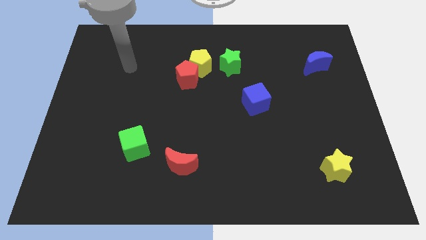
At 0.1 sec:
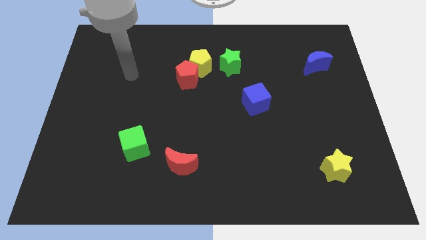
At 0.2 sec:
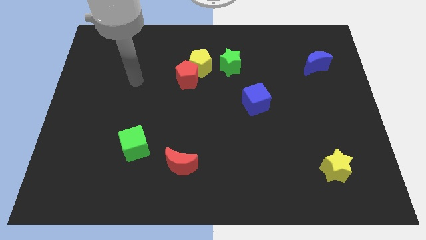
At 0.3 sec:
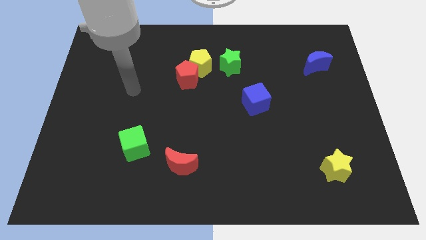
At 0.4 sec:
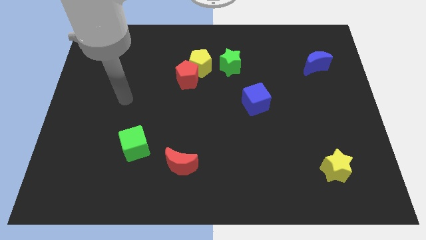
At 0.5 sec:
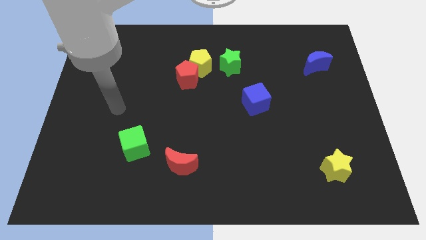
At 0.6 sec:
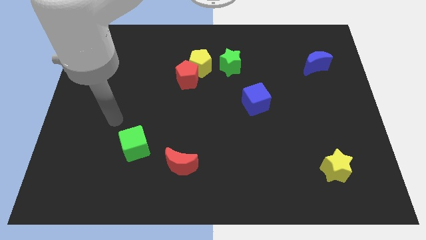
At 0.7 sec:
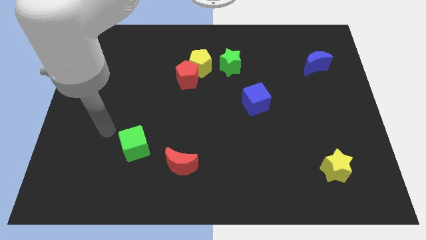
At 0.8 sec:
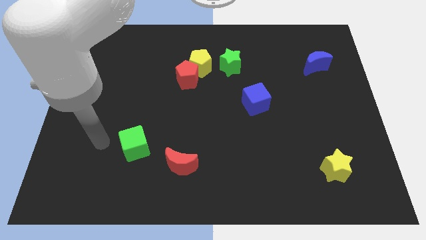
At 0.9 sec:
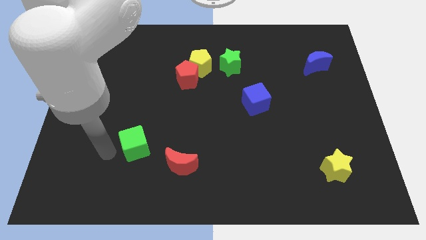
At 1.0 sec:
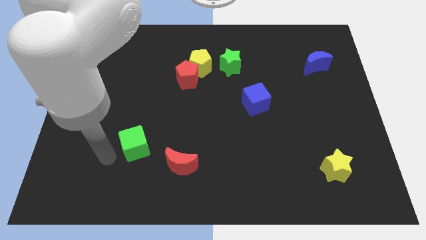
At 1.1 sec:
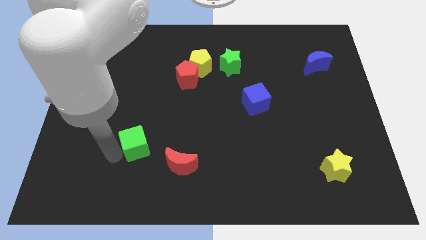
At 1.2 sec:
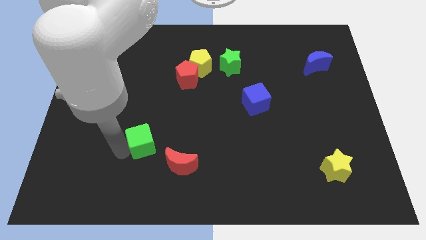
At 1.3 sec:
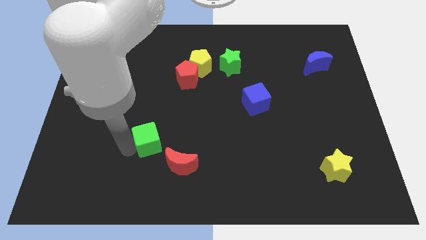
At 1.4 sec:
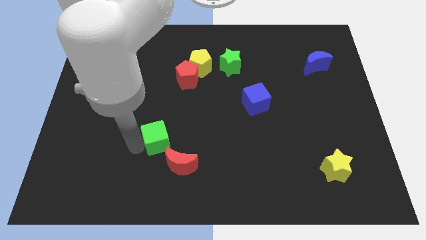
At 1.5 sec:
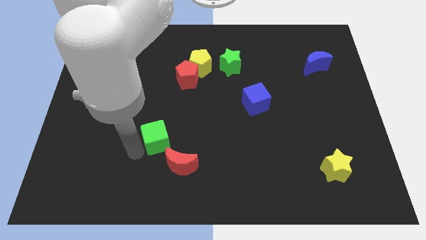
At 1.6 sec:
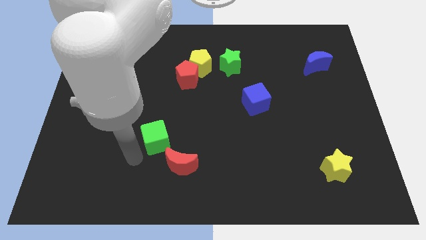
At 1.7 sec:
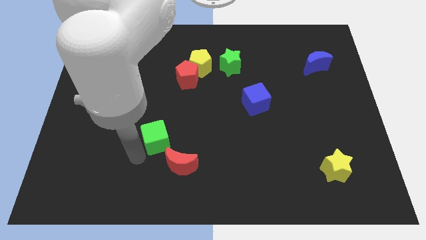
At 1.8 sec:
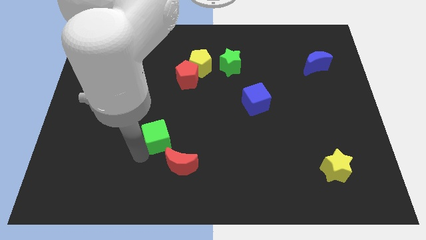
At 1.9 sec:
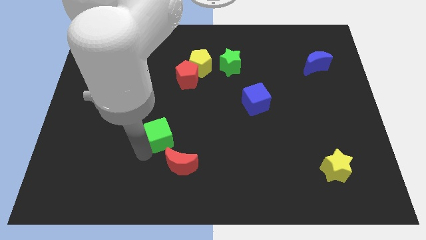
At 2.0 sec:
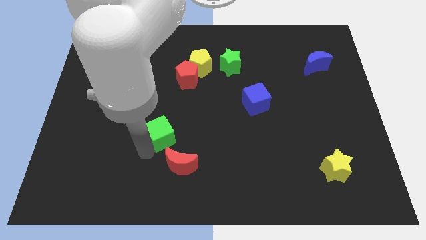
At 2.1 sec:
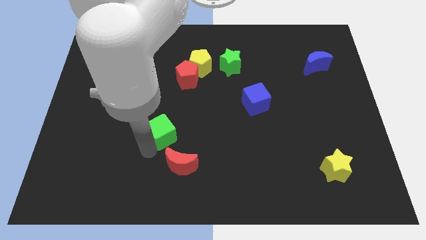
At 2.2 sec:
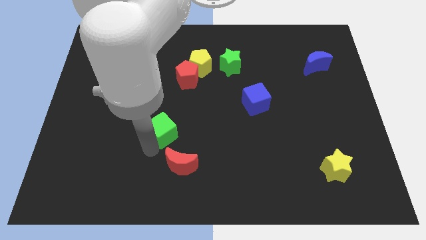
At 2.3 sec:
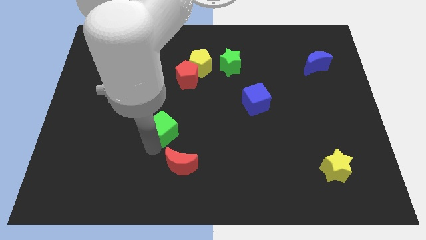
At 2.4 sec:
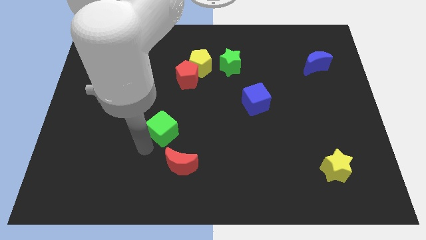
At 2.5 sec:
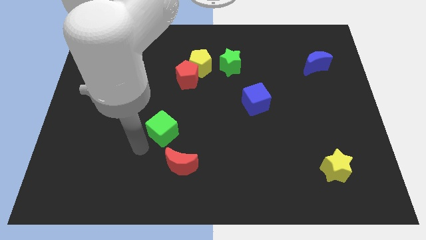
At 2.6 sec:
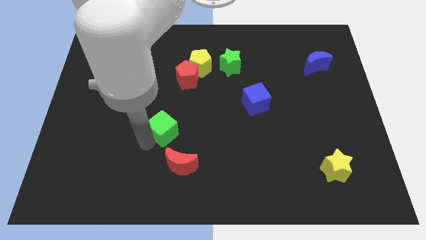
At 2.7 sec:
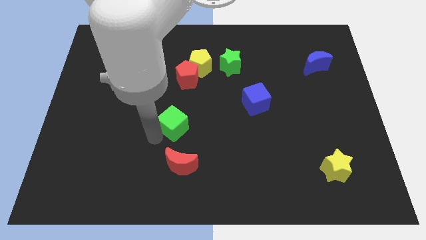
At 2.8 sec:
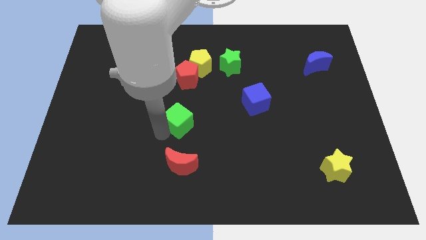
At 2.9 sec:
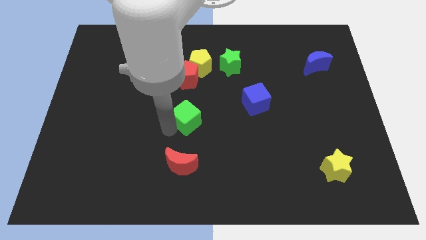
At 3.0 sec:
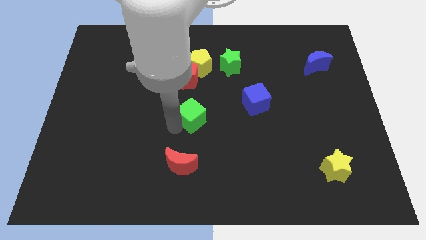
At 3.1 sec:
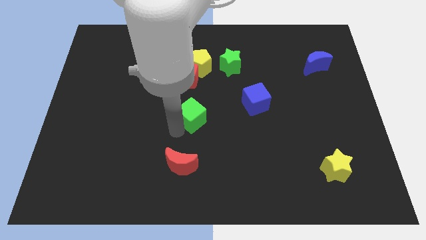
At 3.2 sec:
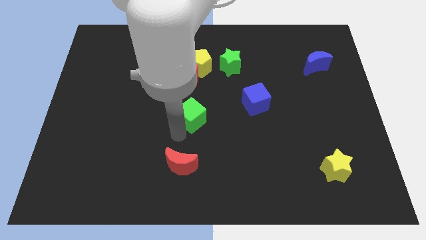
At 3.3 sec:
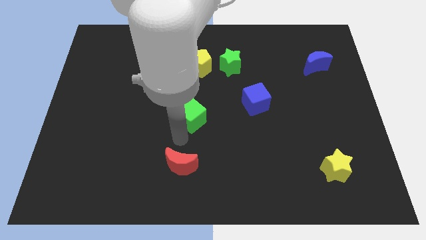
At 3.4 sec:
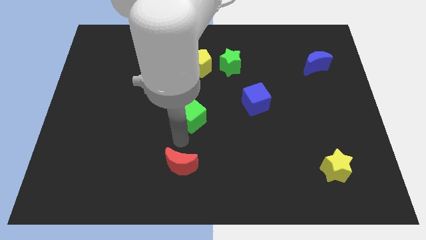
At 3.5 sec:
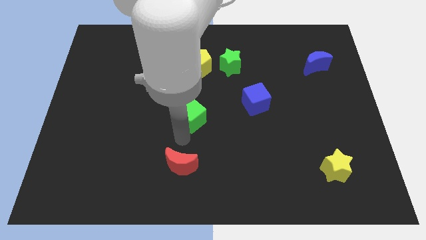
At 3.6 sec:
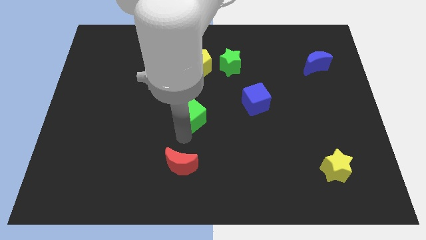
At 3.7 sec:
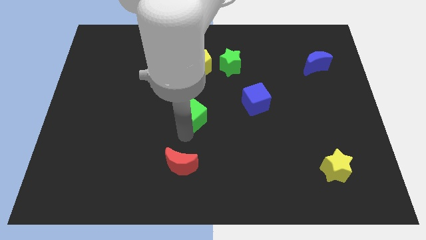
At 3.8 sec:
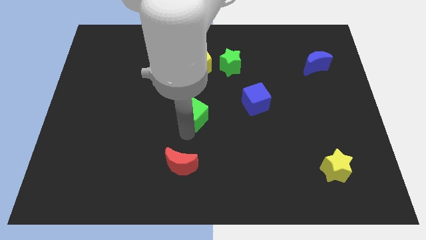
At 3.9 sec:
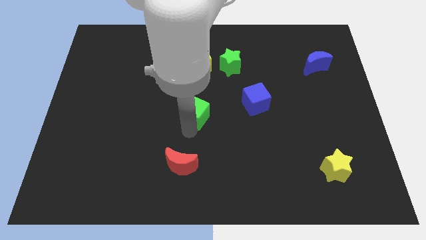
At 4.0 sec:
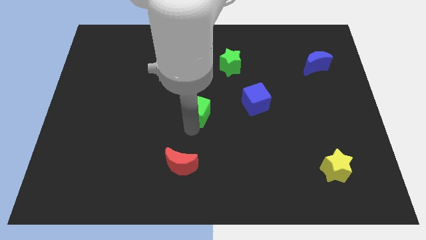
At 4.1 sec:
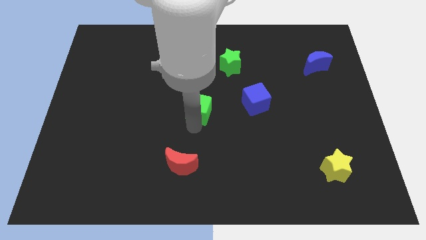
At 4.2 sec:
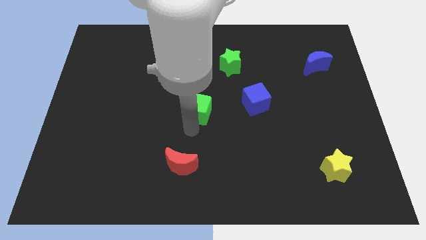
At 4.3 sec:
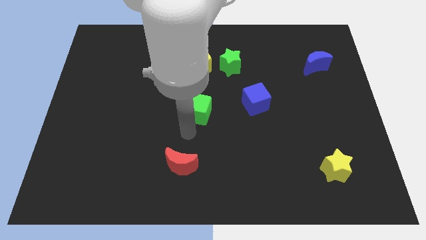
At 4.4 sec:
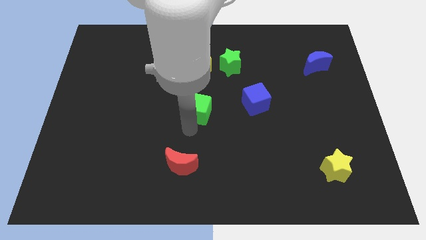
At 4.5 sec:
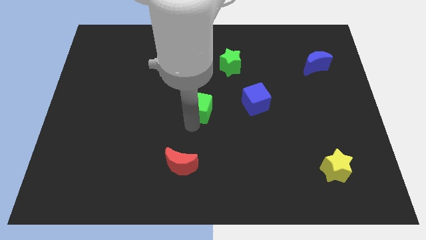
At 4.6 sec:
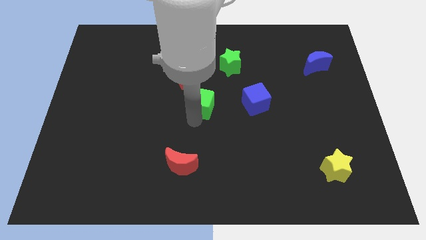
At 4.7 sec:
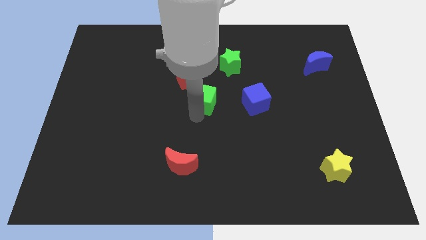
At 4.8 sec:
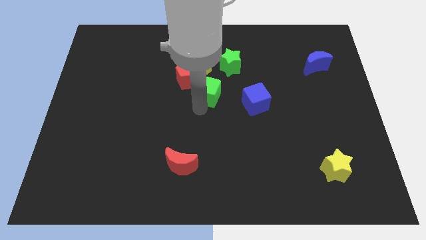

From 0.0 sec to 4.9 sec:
slide the green cube to the bottom right side of the yellow pentagon

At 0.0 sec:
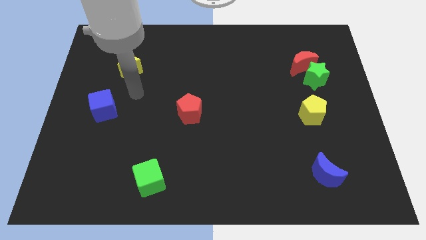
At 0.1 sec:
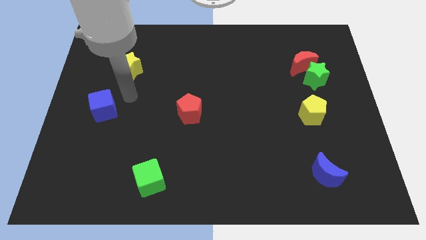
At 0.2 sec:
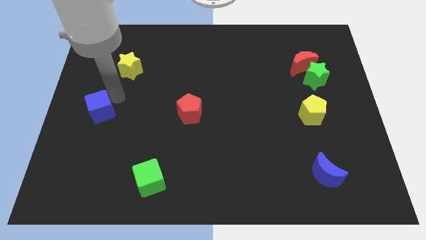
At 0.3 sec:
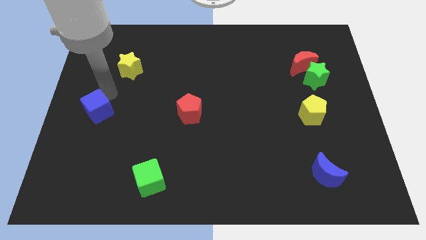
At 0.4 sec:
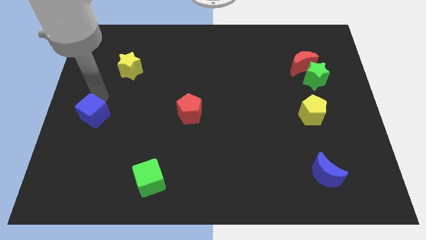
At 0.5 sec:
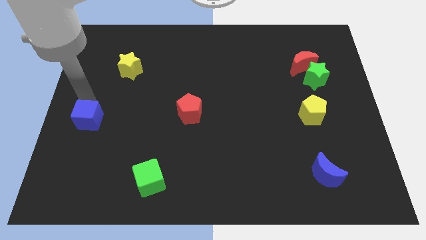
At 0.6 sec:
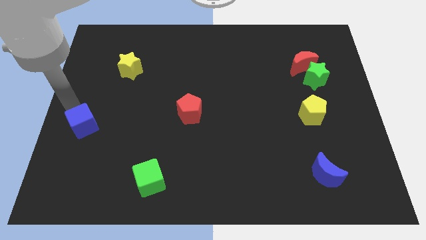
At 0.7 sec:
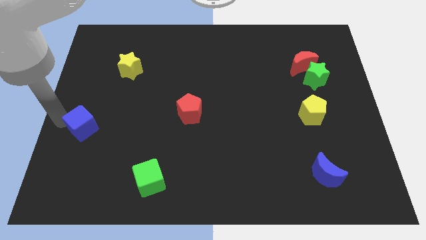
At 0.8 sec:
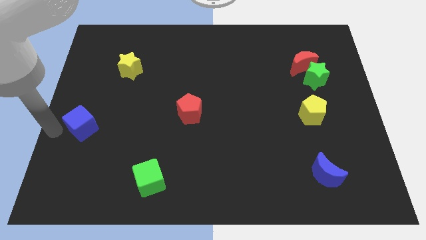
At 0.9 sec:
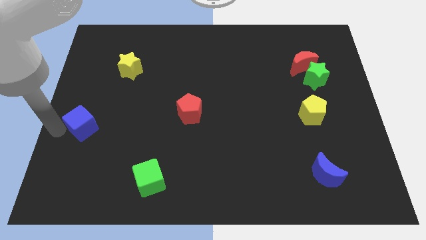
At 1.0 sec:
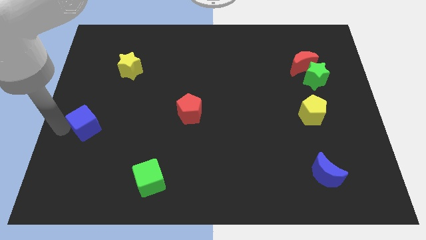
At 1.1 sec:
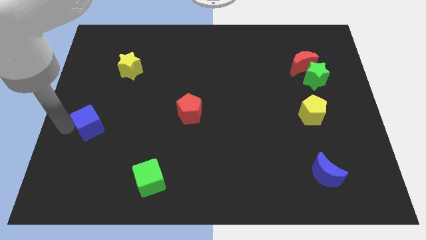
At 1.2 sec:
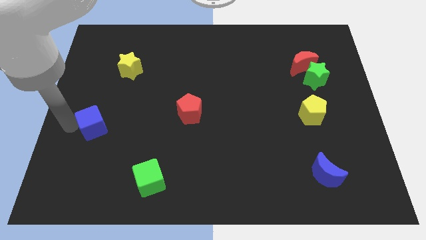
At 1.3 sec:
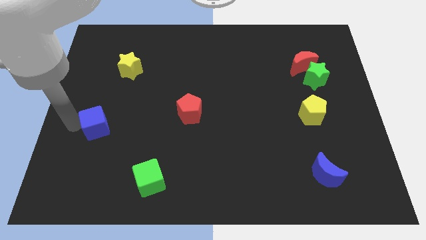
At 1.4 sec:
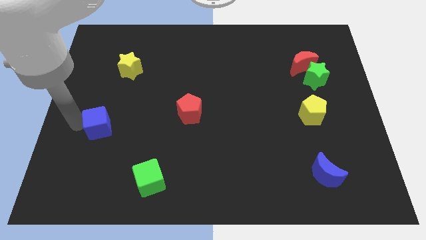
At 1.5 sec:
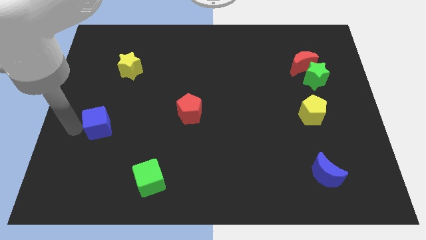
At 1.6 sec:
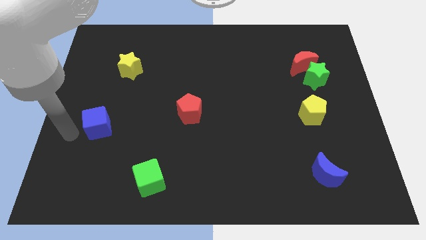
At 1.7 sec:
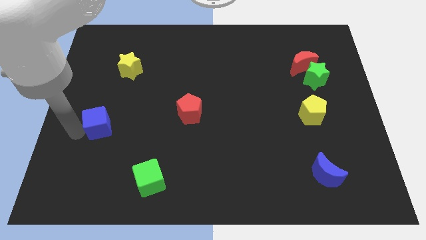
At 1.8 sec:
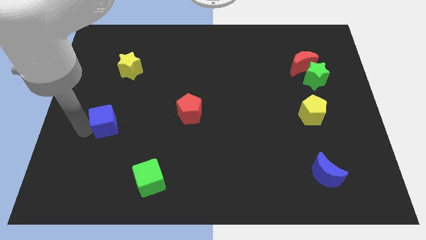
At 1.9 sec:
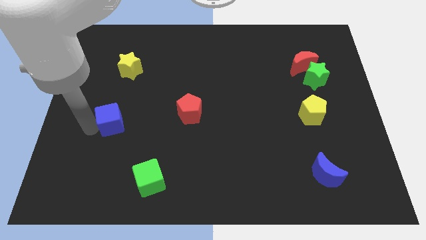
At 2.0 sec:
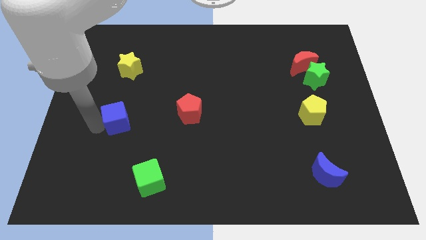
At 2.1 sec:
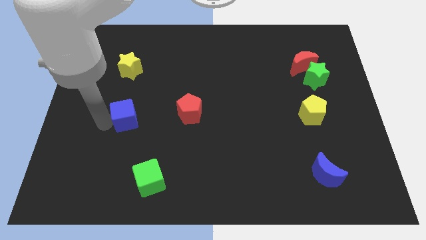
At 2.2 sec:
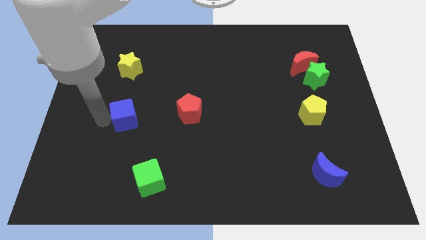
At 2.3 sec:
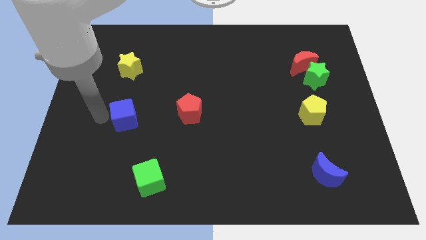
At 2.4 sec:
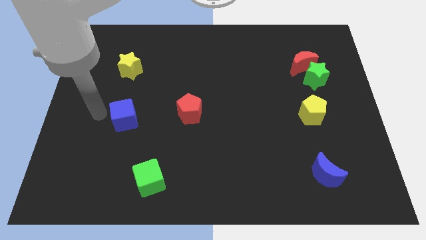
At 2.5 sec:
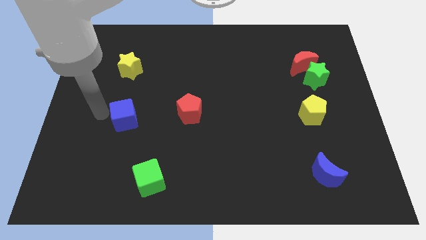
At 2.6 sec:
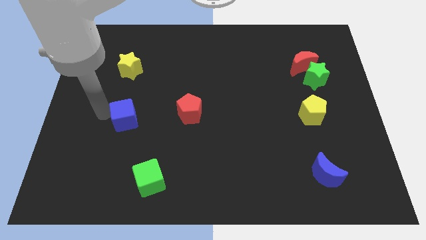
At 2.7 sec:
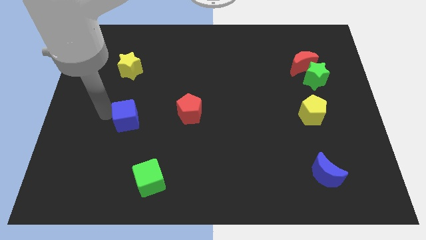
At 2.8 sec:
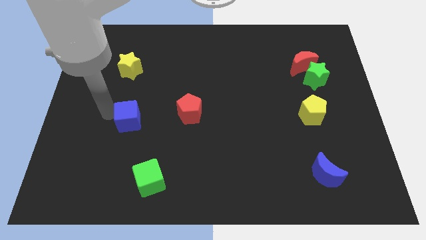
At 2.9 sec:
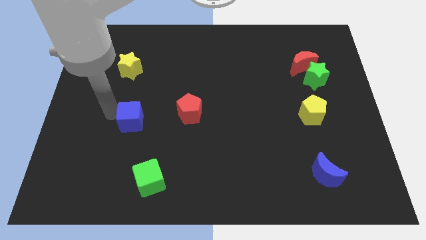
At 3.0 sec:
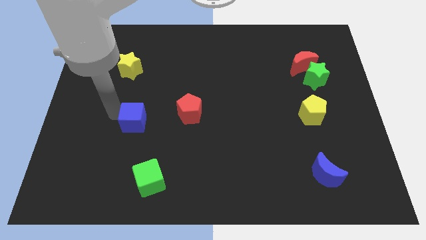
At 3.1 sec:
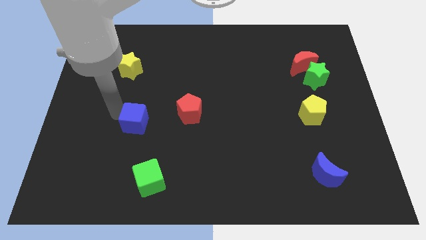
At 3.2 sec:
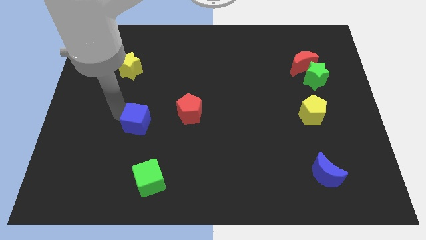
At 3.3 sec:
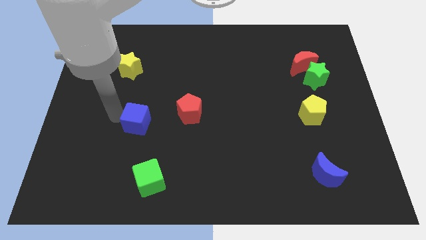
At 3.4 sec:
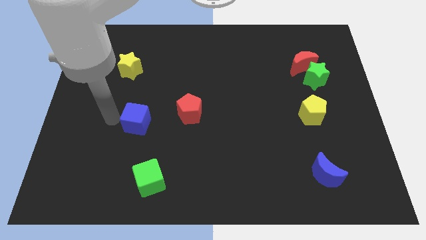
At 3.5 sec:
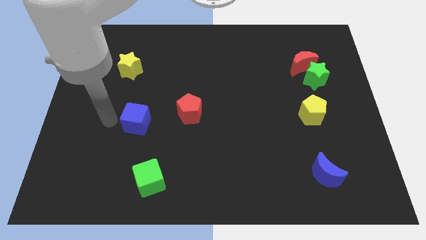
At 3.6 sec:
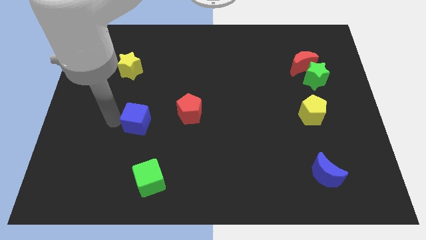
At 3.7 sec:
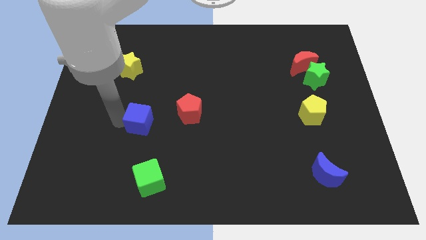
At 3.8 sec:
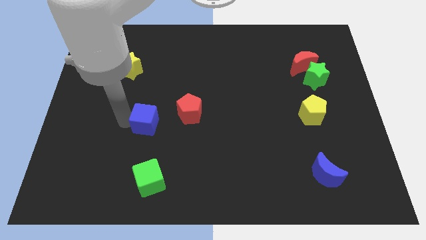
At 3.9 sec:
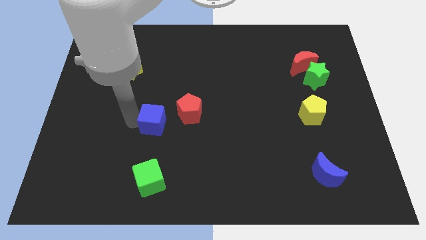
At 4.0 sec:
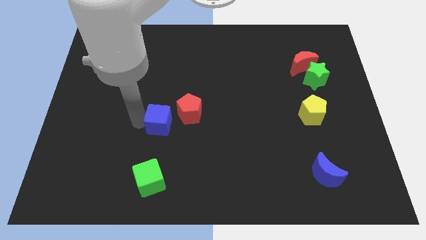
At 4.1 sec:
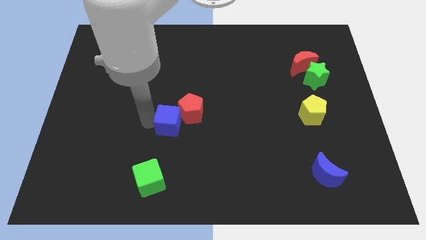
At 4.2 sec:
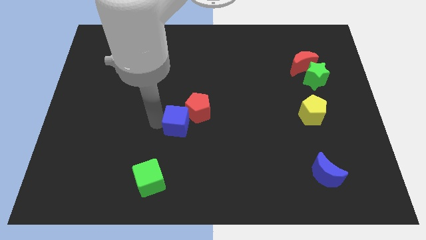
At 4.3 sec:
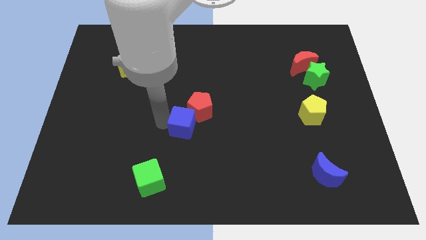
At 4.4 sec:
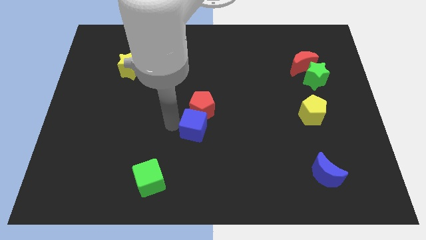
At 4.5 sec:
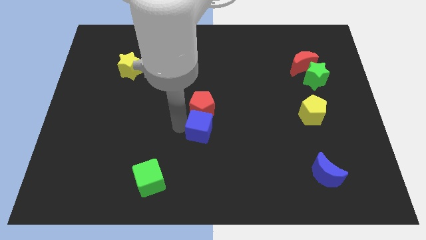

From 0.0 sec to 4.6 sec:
slide the blue cube to the bottom right of the red pentagon
